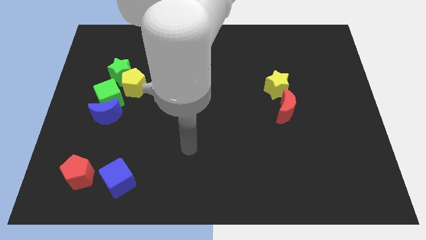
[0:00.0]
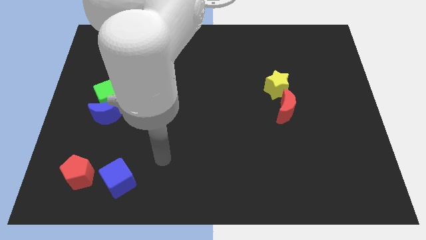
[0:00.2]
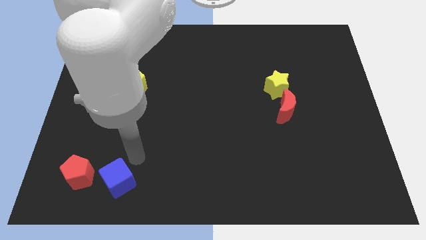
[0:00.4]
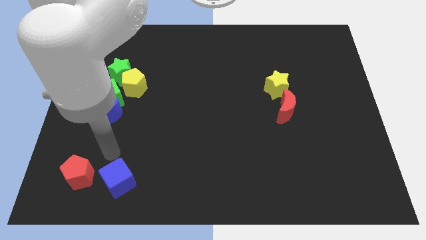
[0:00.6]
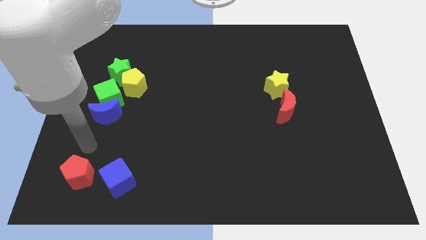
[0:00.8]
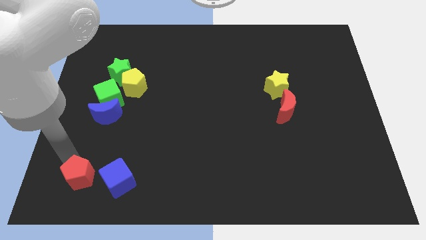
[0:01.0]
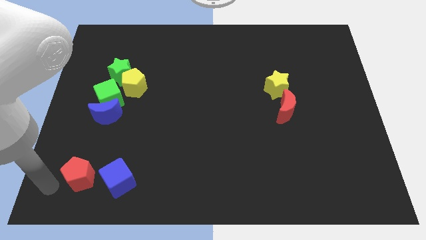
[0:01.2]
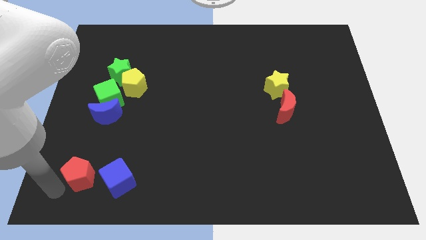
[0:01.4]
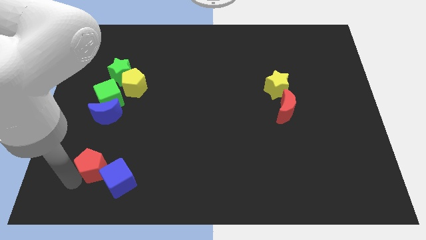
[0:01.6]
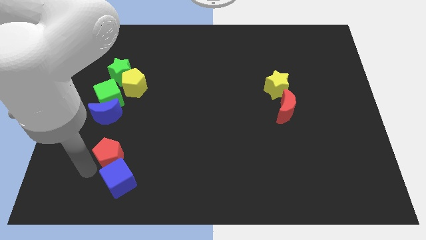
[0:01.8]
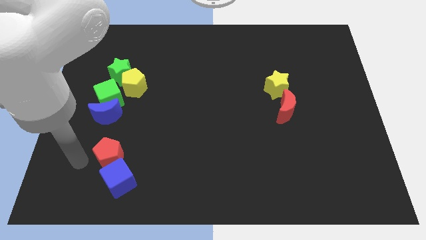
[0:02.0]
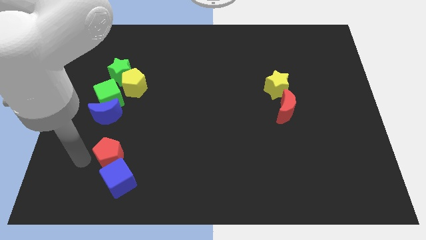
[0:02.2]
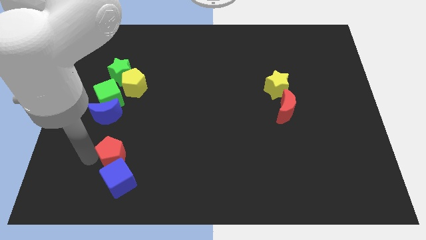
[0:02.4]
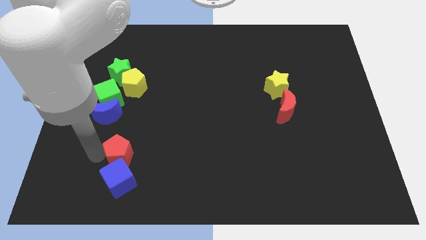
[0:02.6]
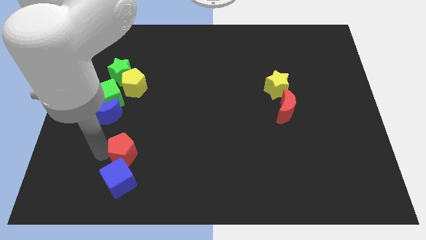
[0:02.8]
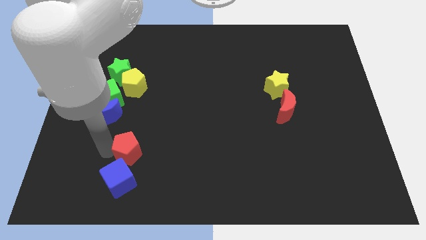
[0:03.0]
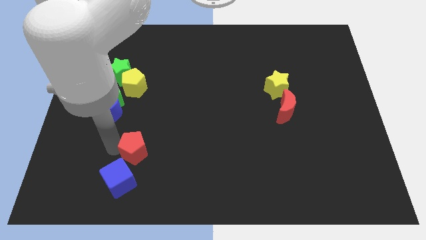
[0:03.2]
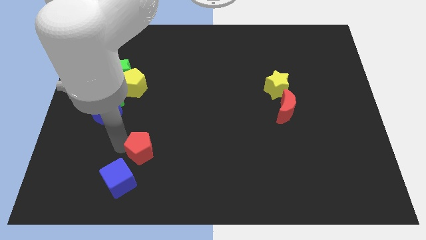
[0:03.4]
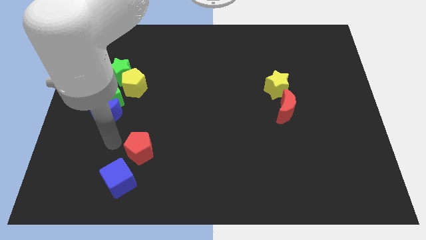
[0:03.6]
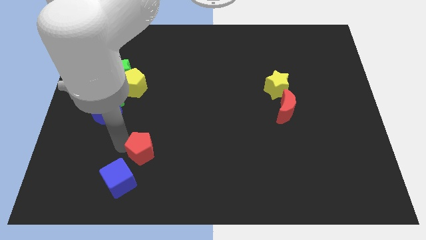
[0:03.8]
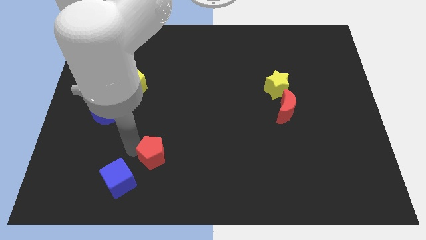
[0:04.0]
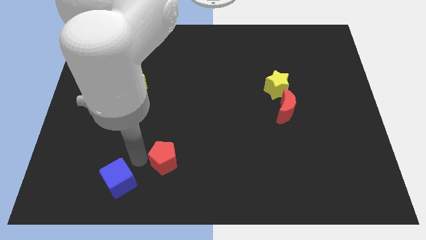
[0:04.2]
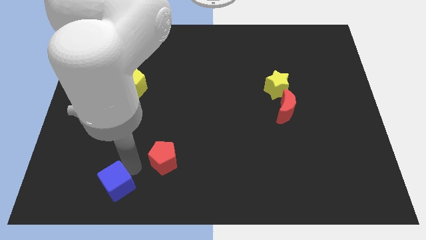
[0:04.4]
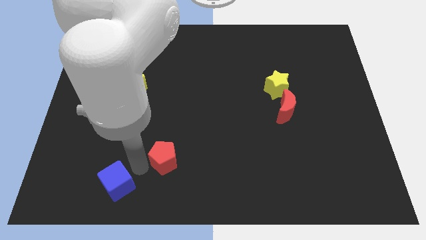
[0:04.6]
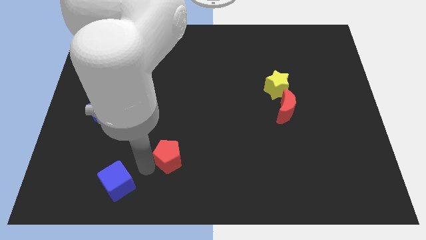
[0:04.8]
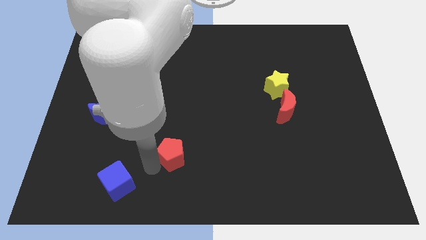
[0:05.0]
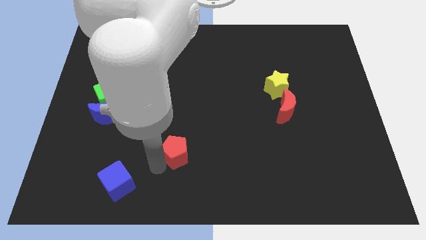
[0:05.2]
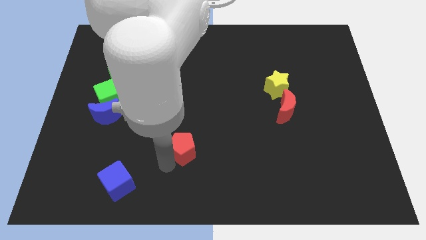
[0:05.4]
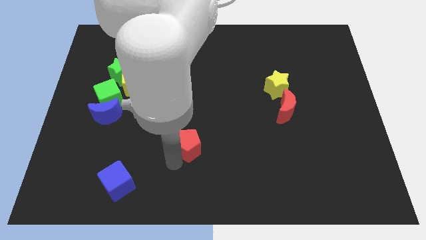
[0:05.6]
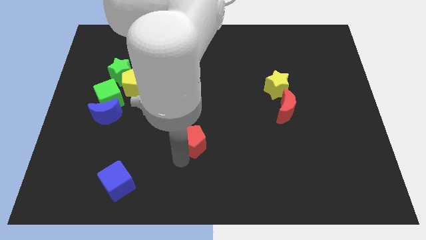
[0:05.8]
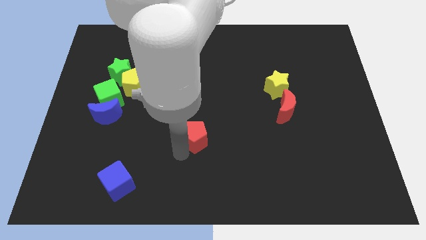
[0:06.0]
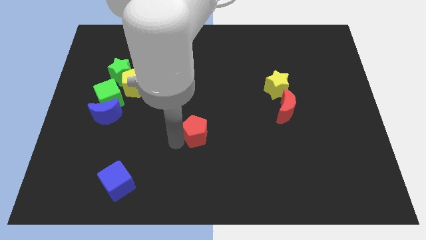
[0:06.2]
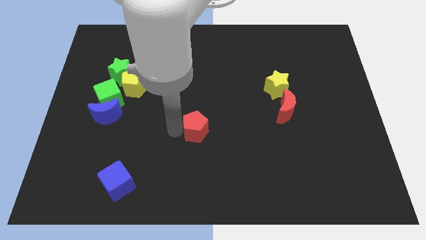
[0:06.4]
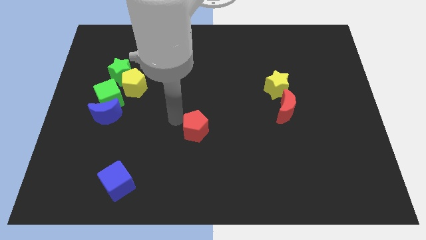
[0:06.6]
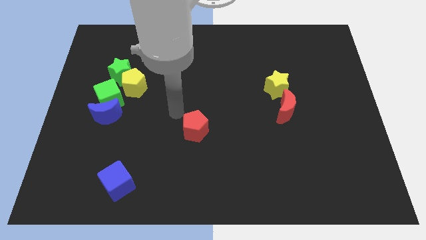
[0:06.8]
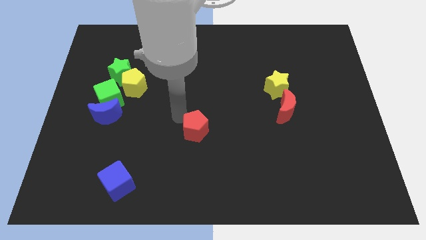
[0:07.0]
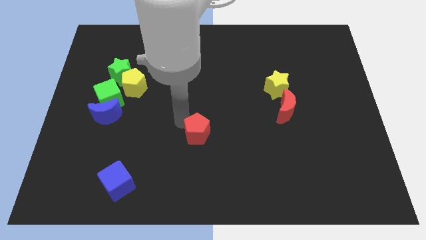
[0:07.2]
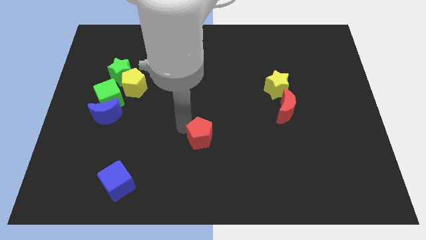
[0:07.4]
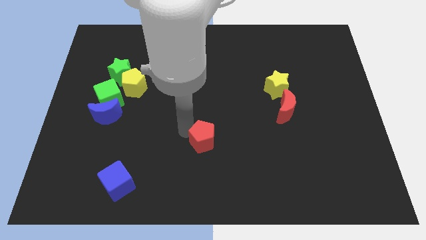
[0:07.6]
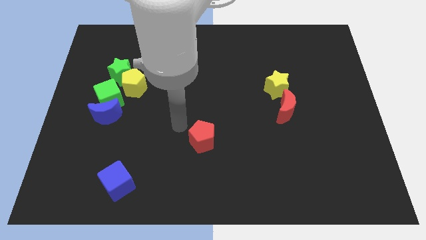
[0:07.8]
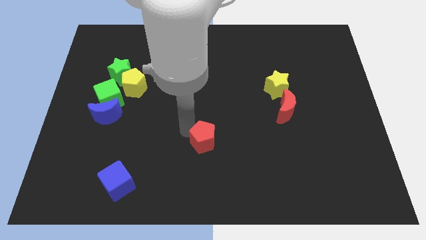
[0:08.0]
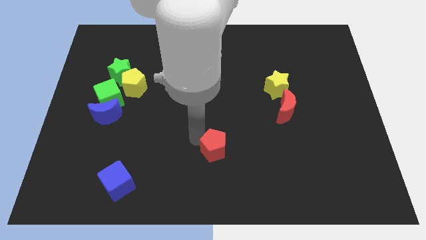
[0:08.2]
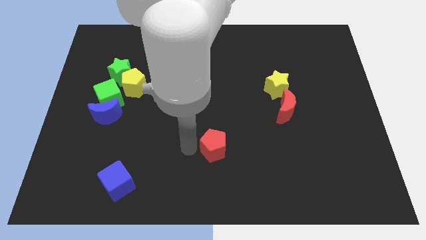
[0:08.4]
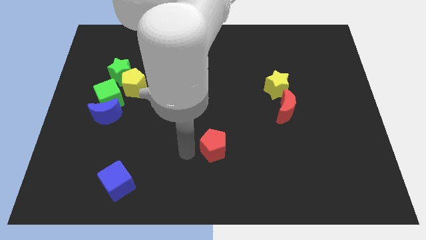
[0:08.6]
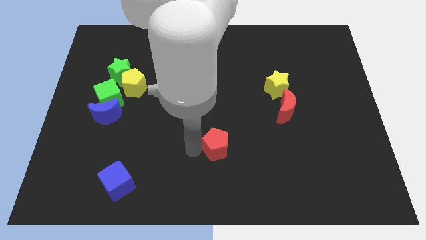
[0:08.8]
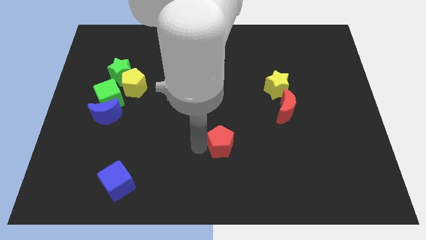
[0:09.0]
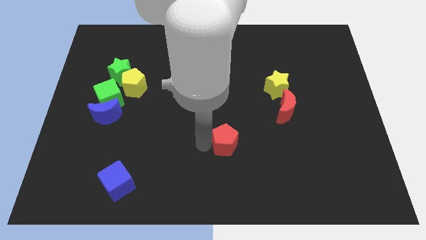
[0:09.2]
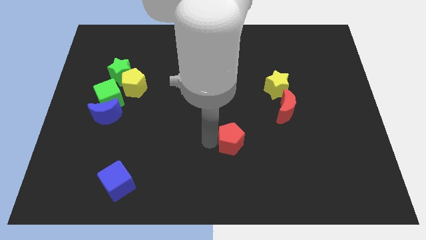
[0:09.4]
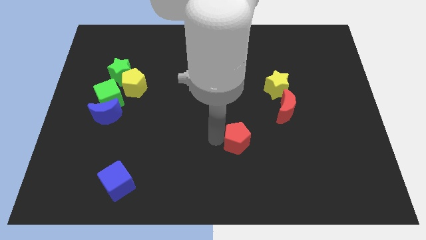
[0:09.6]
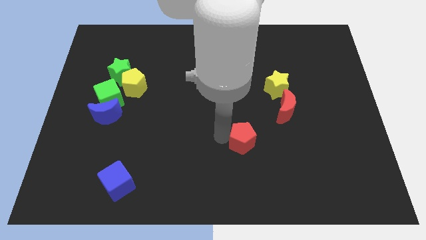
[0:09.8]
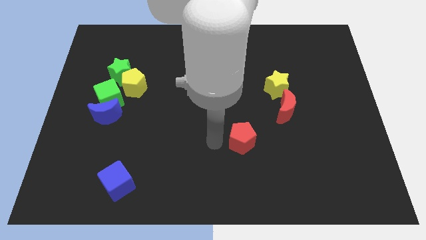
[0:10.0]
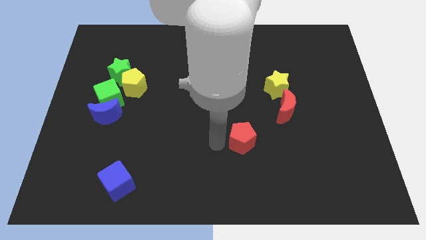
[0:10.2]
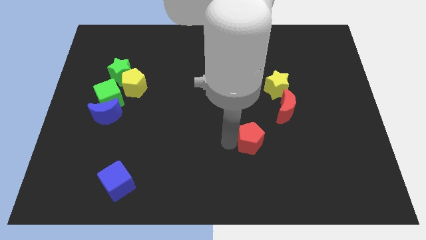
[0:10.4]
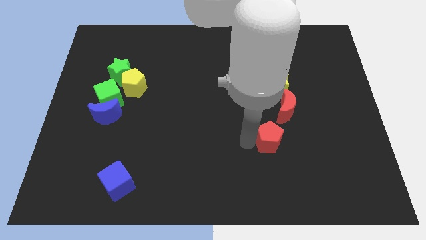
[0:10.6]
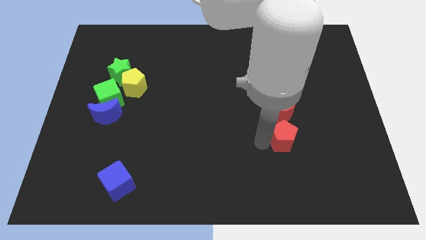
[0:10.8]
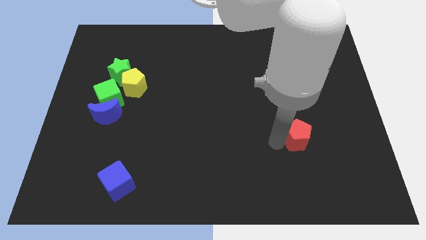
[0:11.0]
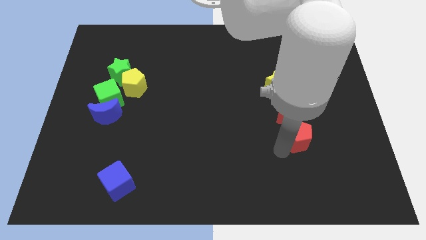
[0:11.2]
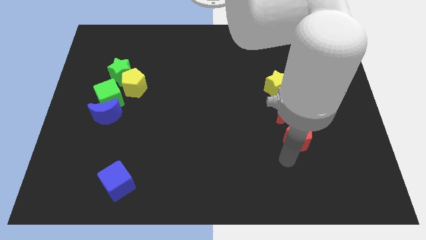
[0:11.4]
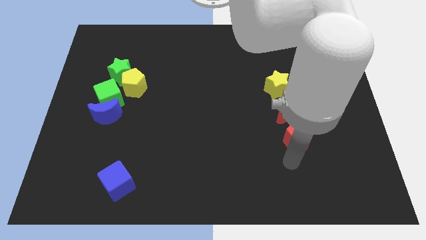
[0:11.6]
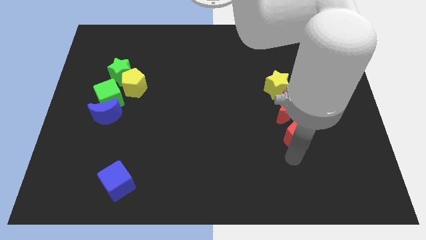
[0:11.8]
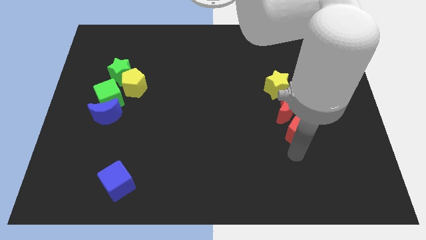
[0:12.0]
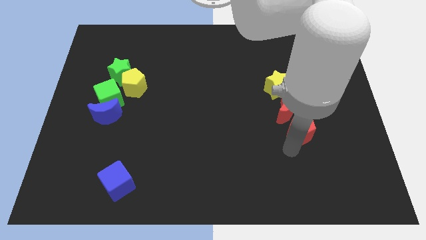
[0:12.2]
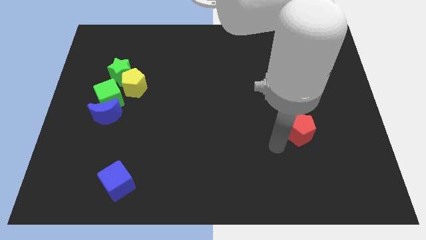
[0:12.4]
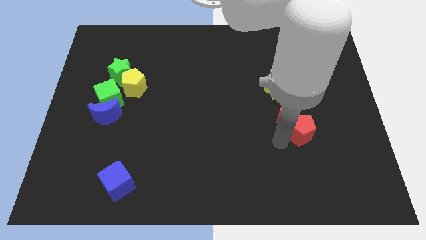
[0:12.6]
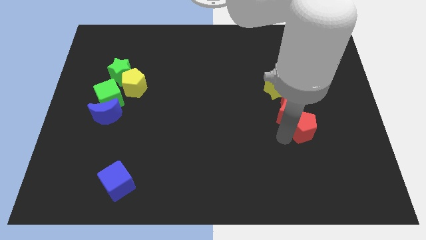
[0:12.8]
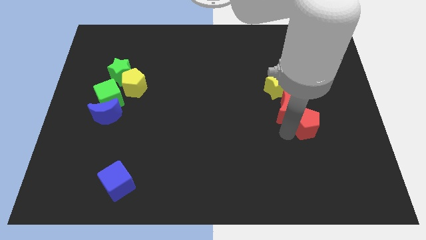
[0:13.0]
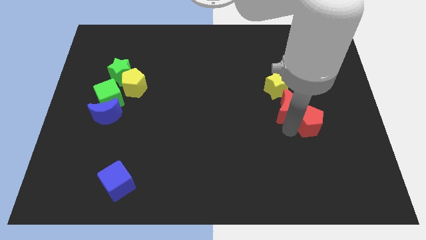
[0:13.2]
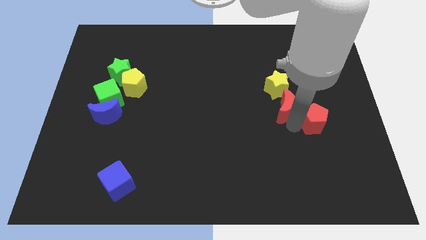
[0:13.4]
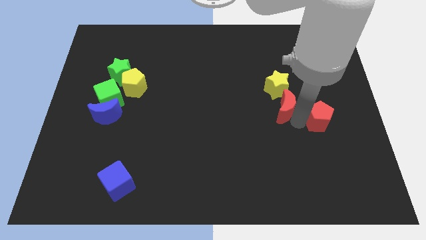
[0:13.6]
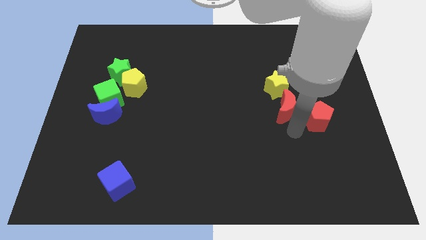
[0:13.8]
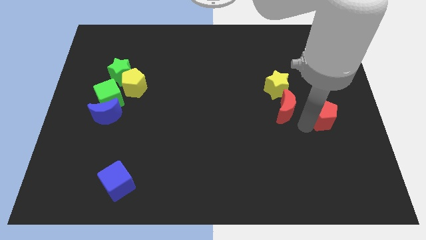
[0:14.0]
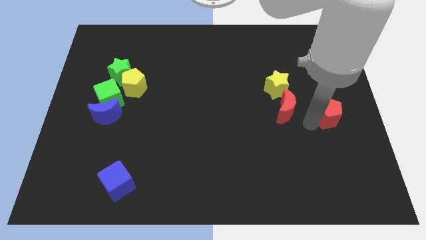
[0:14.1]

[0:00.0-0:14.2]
push the red pentagon to the right side of the board
